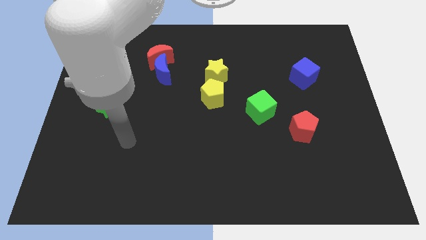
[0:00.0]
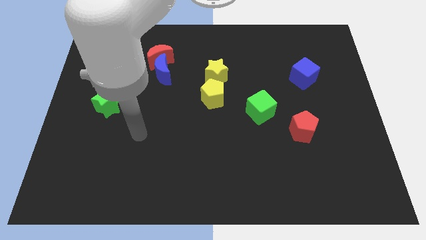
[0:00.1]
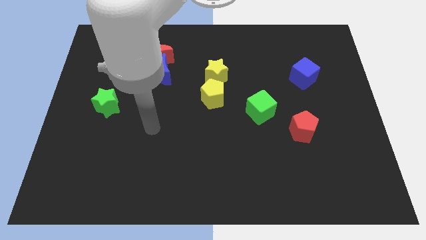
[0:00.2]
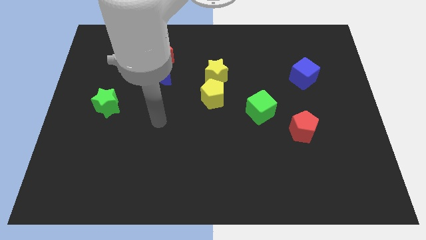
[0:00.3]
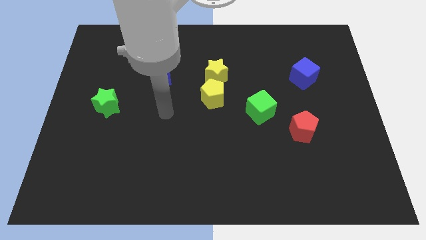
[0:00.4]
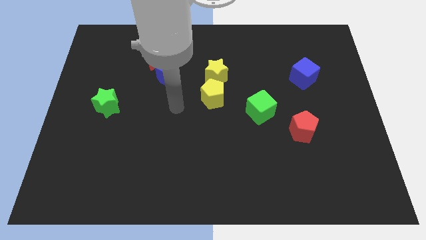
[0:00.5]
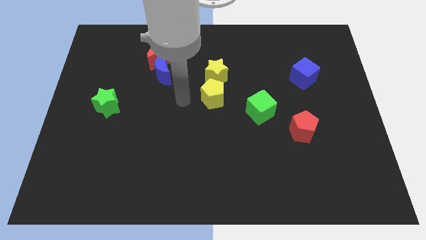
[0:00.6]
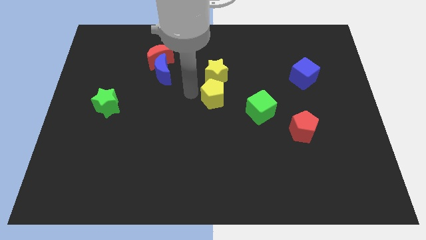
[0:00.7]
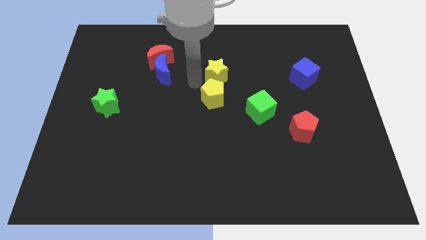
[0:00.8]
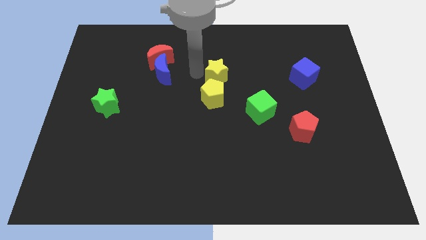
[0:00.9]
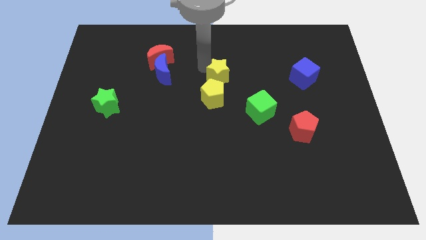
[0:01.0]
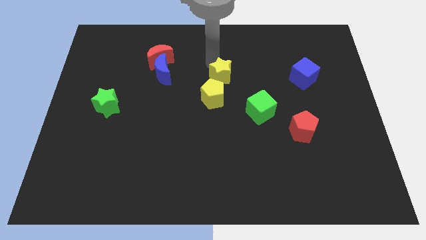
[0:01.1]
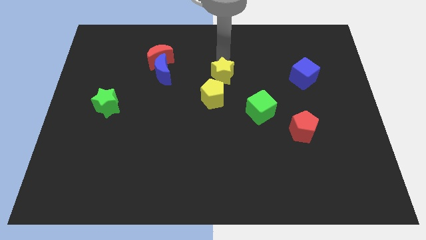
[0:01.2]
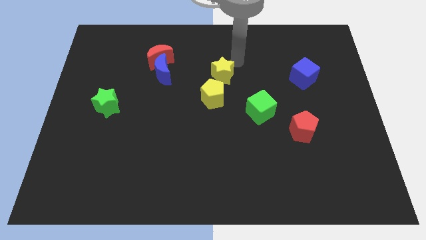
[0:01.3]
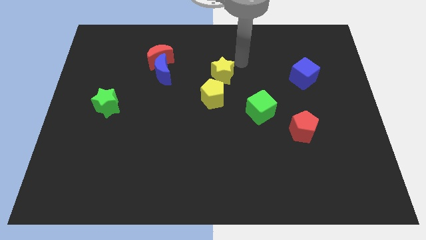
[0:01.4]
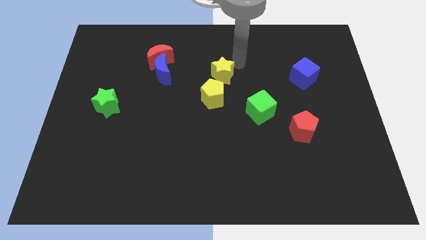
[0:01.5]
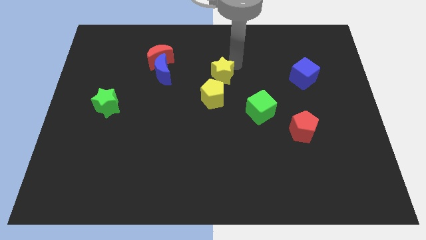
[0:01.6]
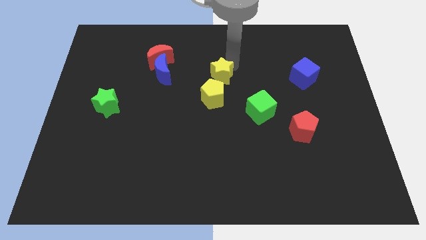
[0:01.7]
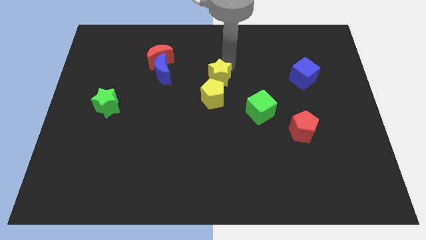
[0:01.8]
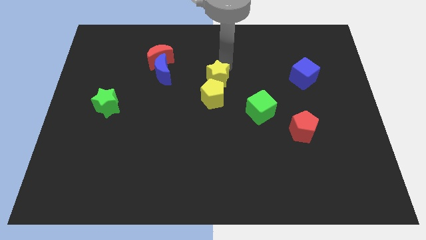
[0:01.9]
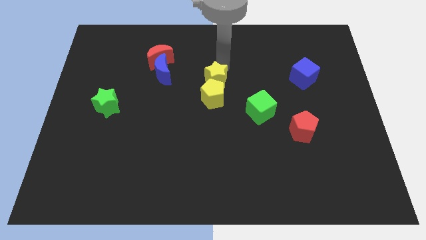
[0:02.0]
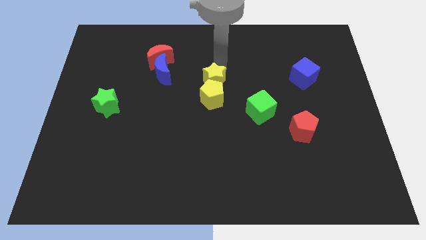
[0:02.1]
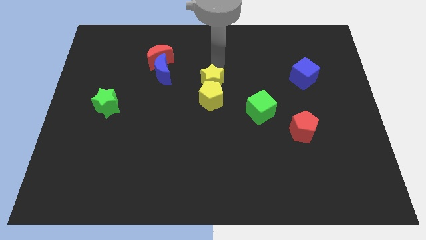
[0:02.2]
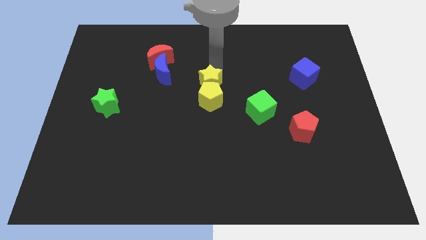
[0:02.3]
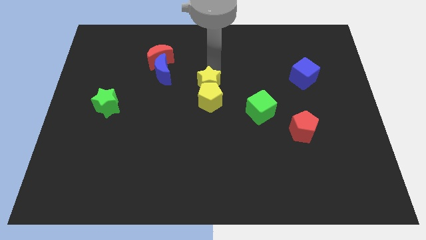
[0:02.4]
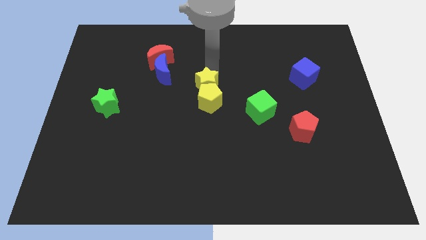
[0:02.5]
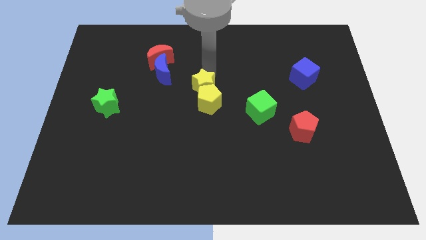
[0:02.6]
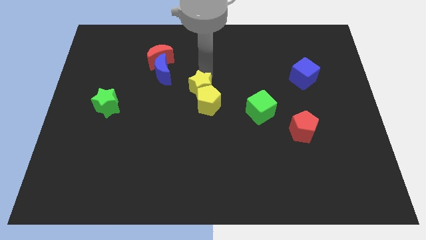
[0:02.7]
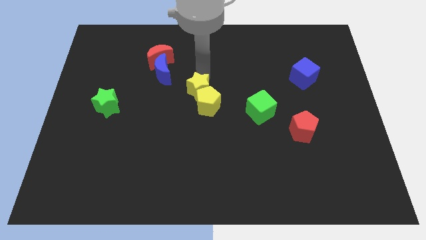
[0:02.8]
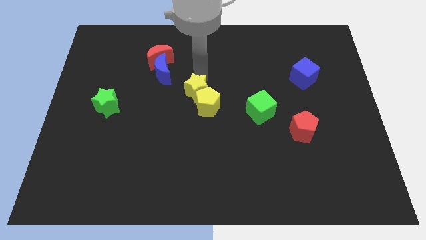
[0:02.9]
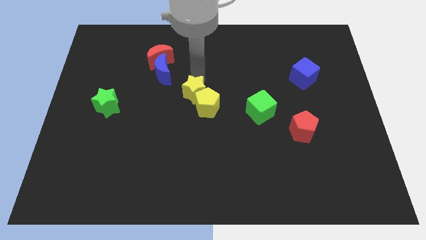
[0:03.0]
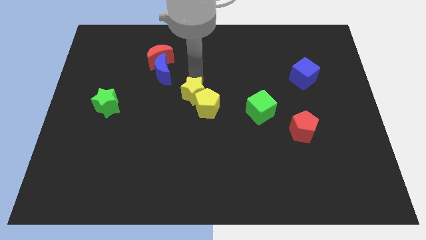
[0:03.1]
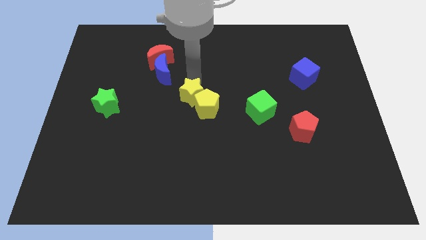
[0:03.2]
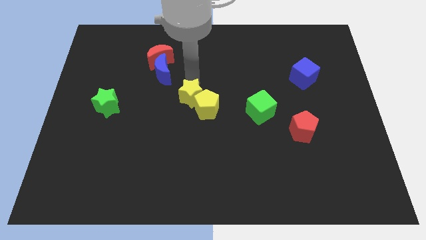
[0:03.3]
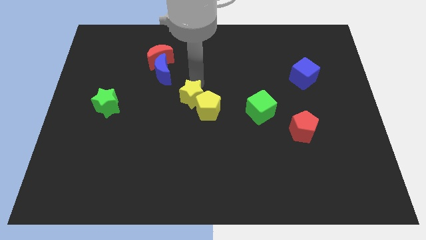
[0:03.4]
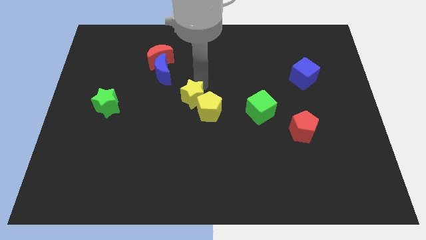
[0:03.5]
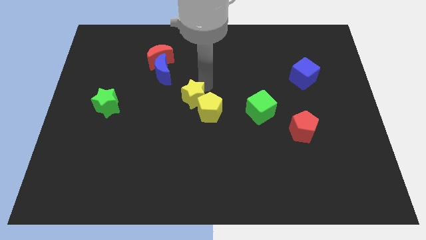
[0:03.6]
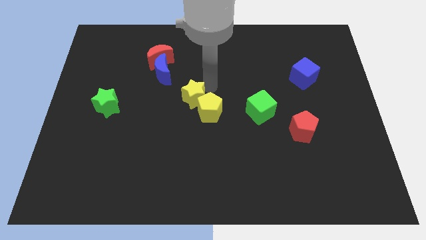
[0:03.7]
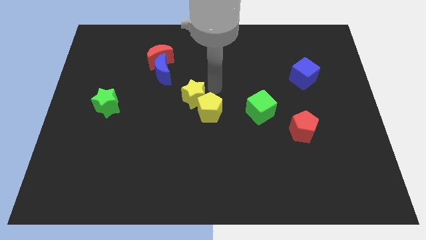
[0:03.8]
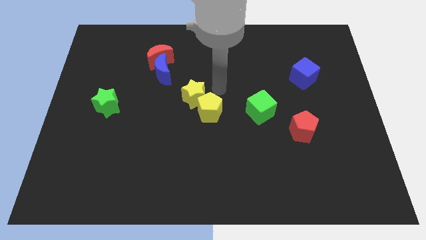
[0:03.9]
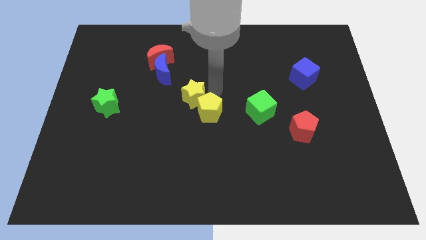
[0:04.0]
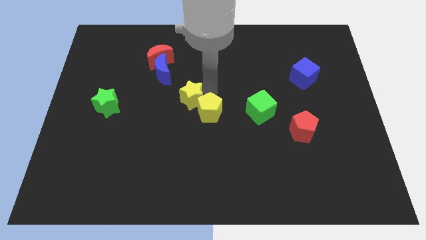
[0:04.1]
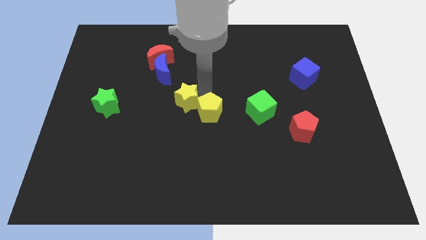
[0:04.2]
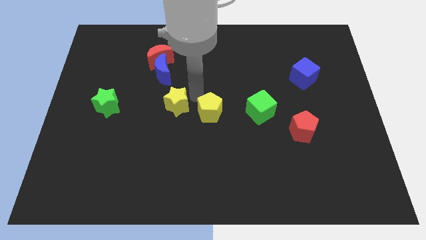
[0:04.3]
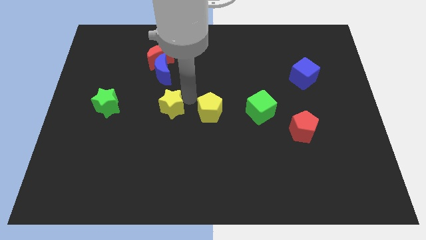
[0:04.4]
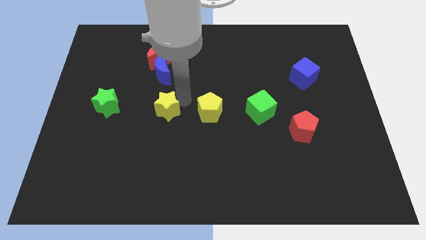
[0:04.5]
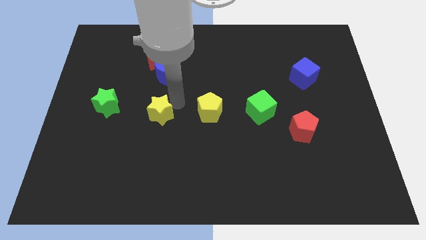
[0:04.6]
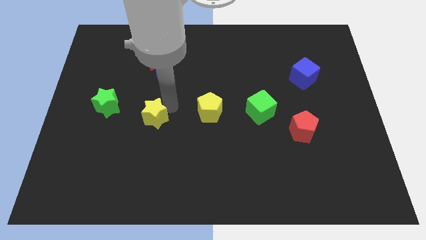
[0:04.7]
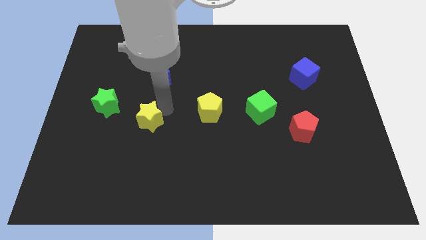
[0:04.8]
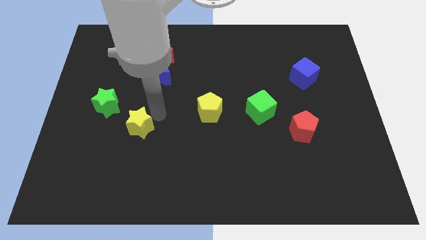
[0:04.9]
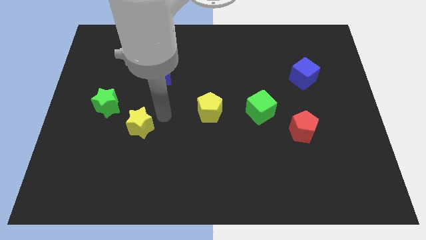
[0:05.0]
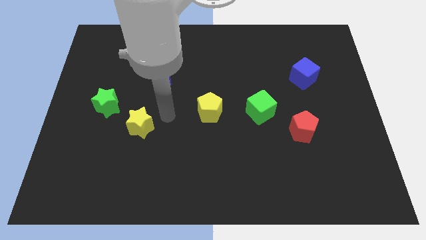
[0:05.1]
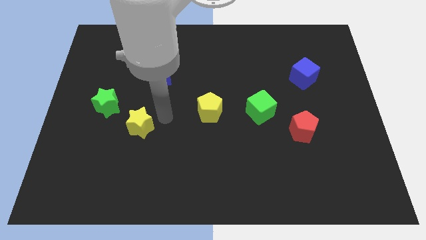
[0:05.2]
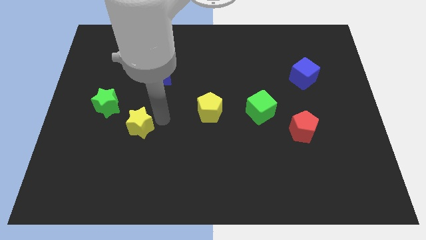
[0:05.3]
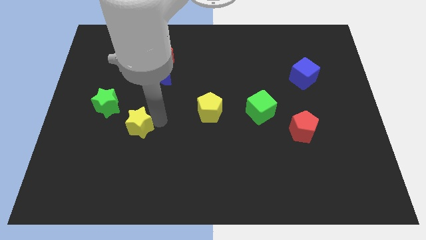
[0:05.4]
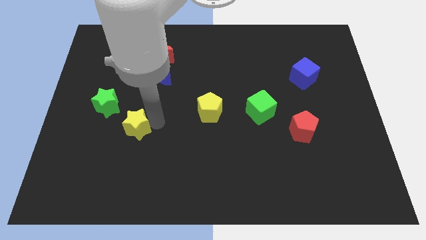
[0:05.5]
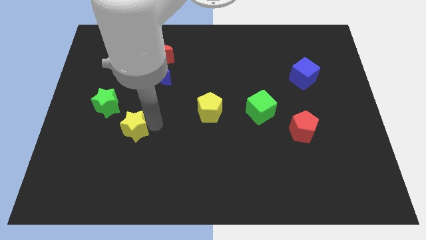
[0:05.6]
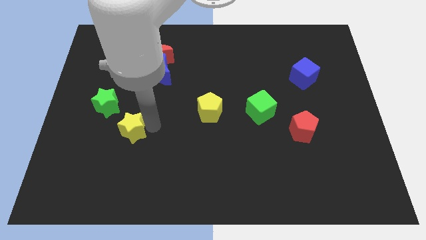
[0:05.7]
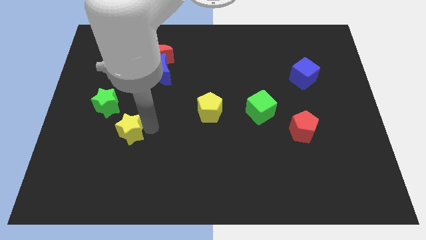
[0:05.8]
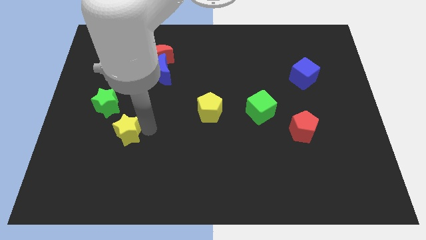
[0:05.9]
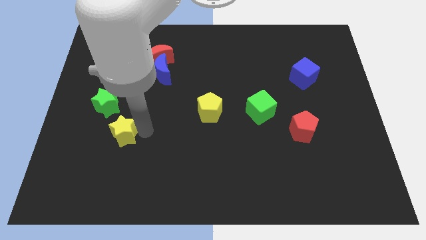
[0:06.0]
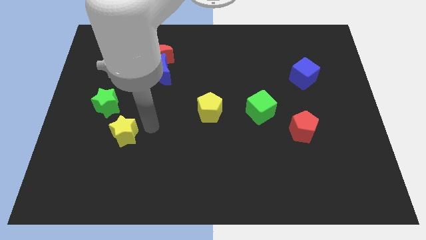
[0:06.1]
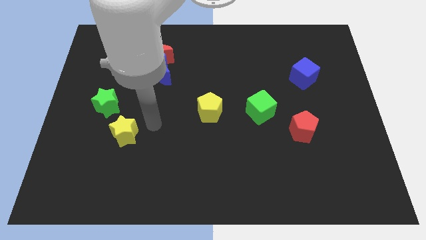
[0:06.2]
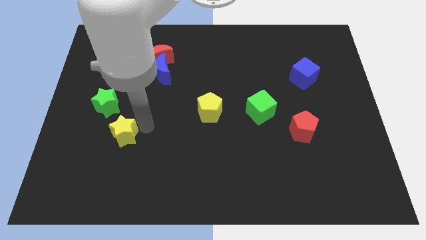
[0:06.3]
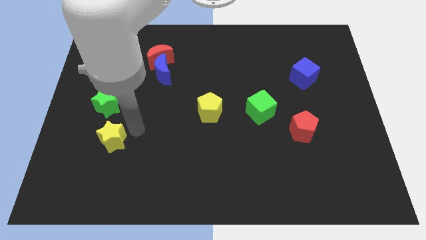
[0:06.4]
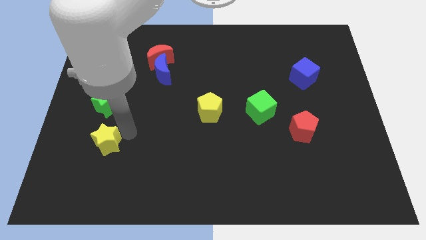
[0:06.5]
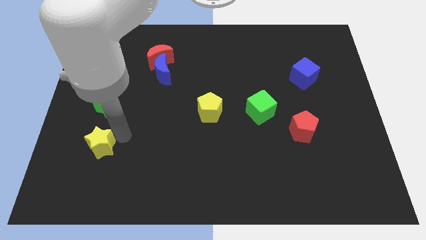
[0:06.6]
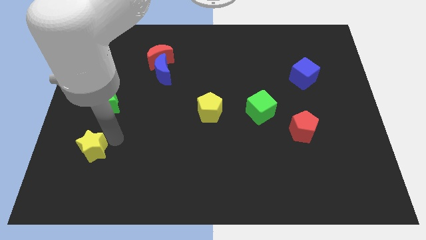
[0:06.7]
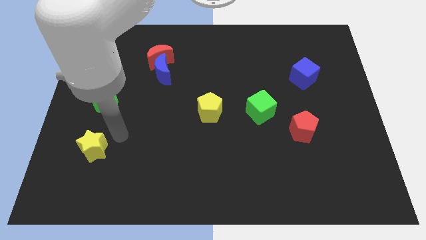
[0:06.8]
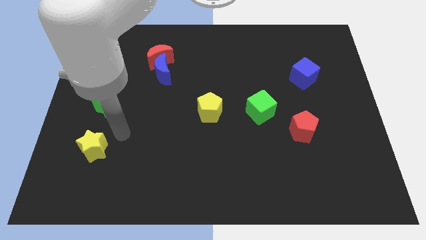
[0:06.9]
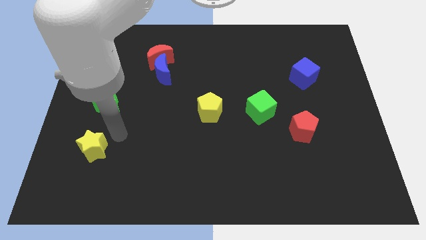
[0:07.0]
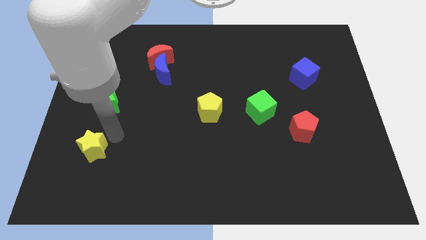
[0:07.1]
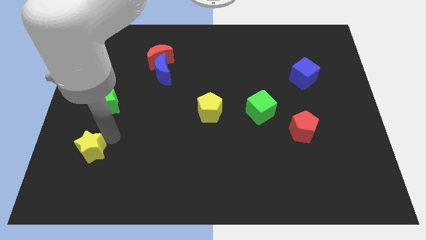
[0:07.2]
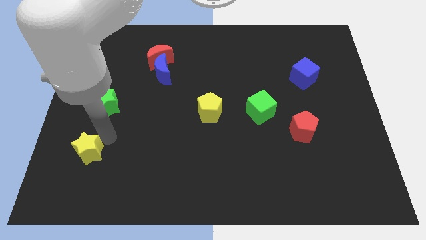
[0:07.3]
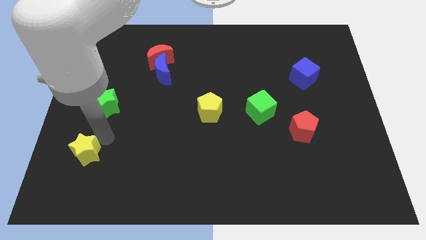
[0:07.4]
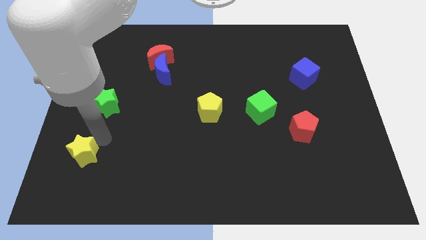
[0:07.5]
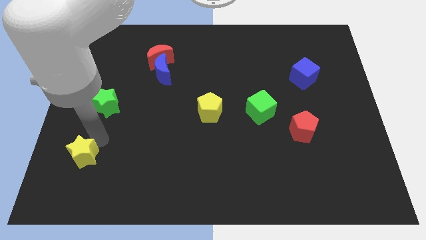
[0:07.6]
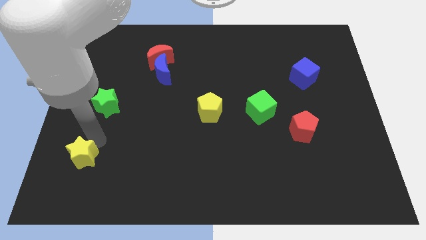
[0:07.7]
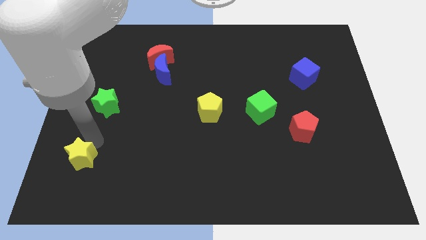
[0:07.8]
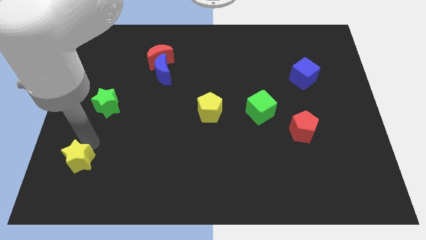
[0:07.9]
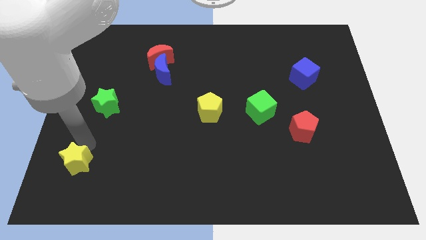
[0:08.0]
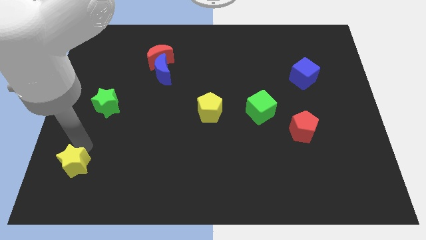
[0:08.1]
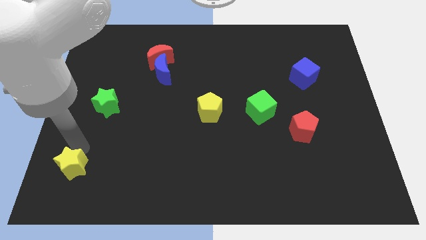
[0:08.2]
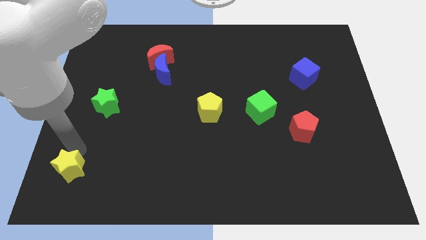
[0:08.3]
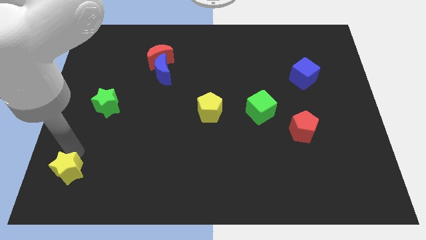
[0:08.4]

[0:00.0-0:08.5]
move the yellow star to the bottom left
